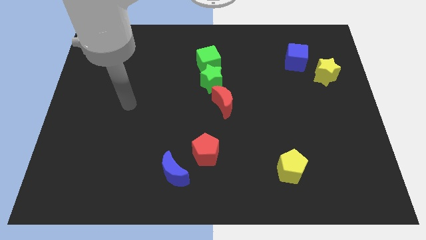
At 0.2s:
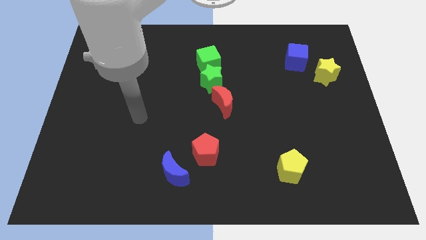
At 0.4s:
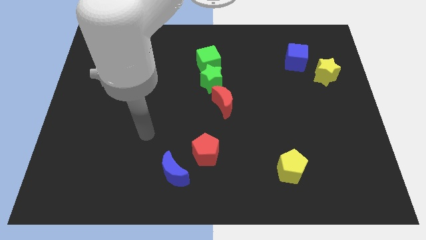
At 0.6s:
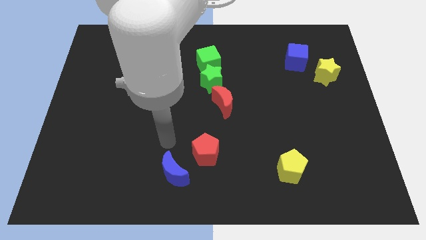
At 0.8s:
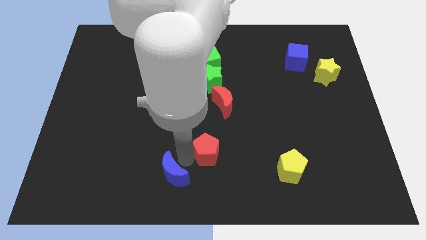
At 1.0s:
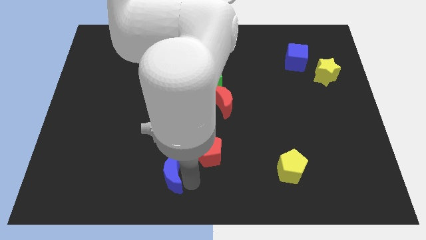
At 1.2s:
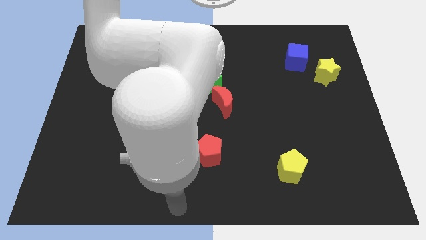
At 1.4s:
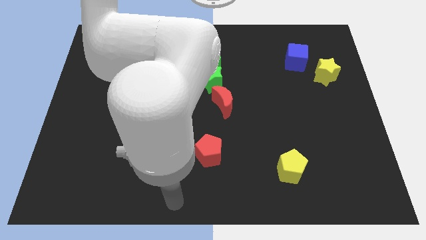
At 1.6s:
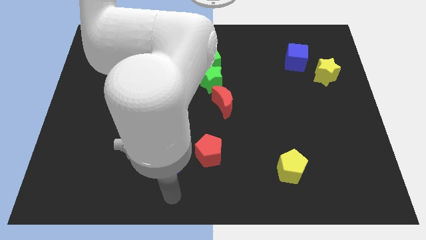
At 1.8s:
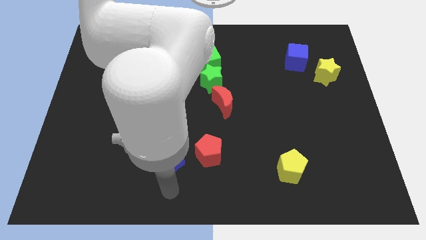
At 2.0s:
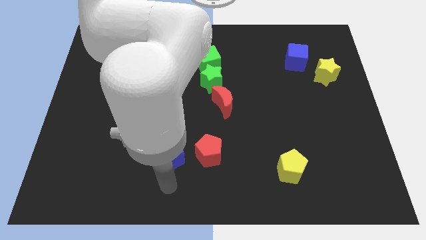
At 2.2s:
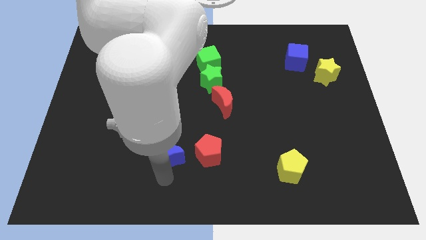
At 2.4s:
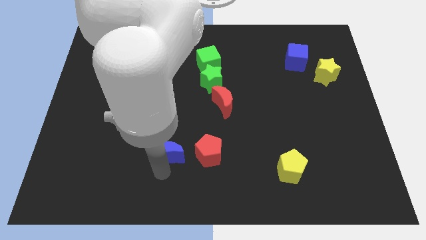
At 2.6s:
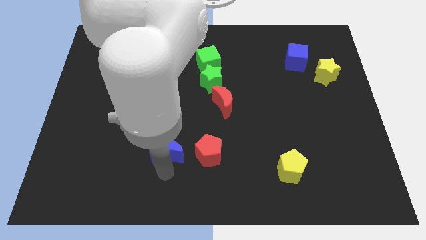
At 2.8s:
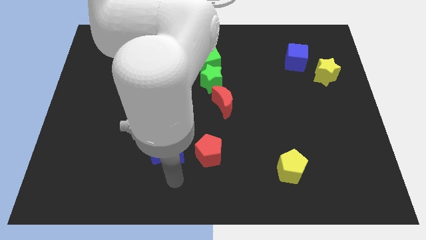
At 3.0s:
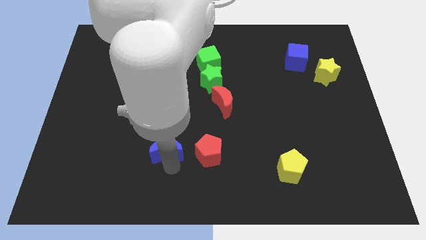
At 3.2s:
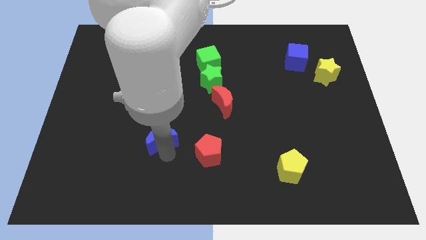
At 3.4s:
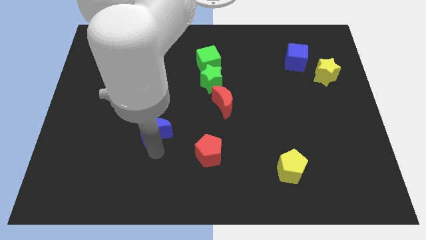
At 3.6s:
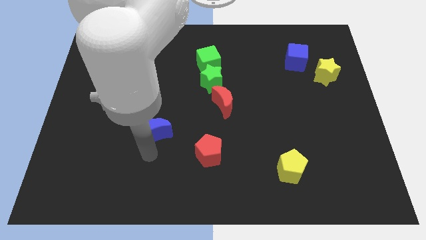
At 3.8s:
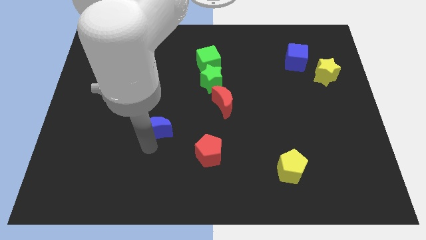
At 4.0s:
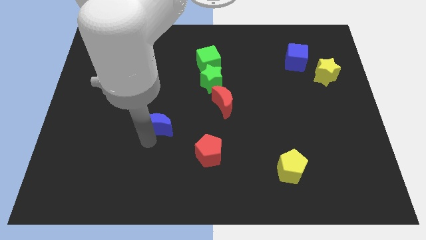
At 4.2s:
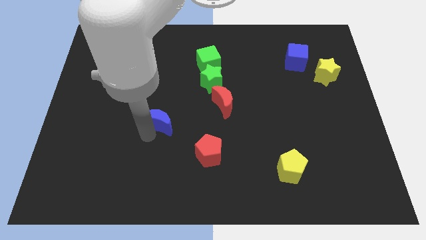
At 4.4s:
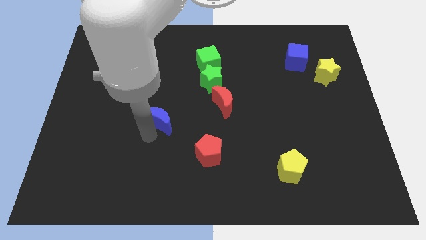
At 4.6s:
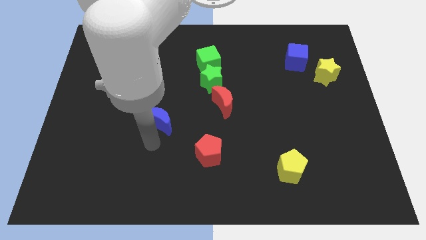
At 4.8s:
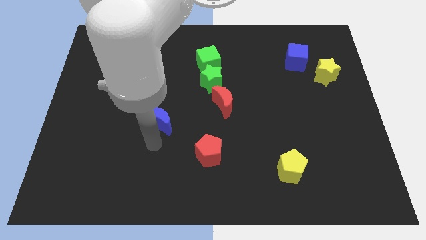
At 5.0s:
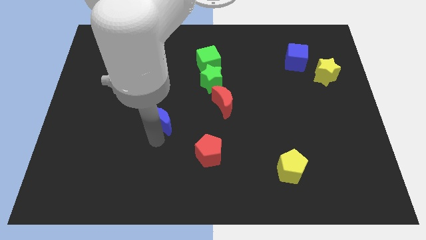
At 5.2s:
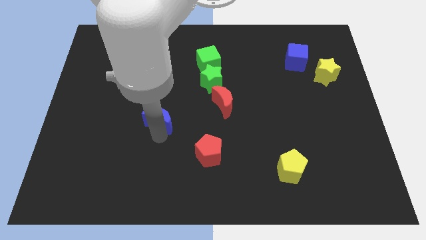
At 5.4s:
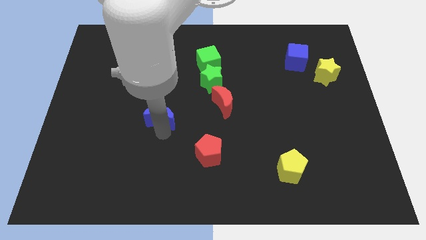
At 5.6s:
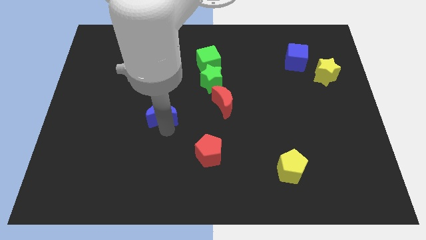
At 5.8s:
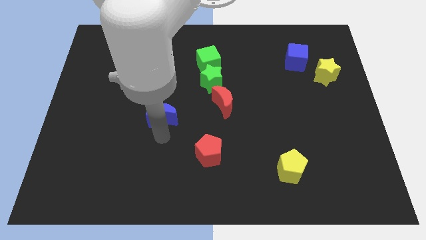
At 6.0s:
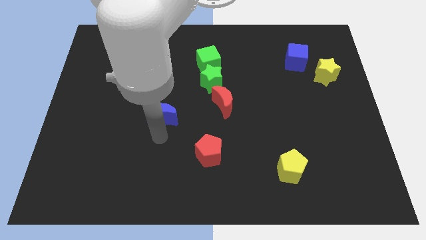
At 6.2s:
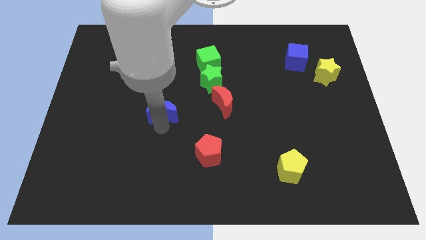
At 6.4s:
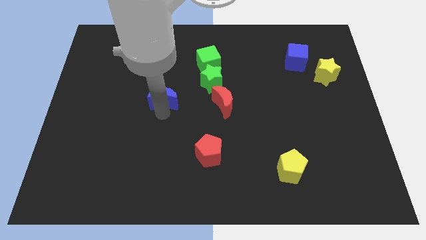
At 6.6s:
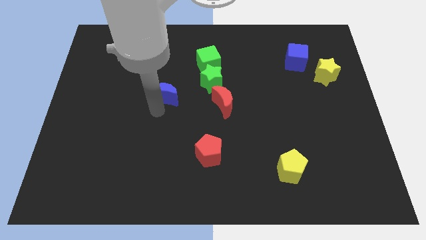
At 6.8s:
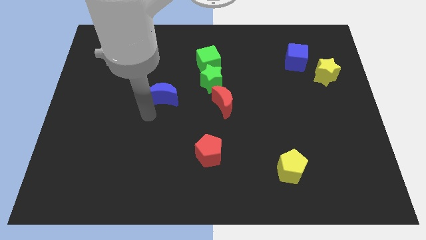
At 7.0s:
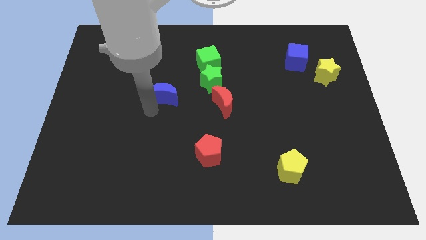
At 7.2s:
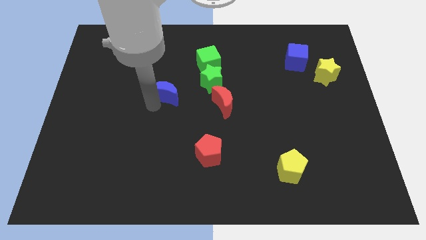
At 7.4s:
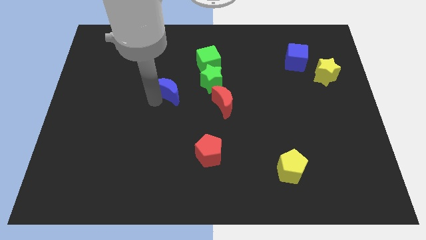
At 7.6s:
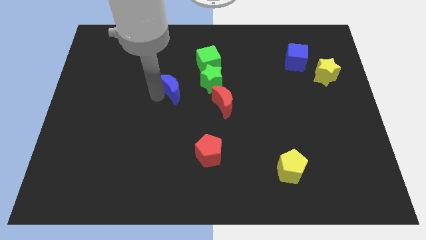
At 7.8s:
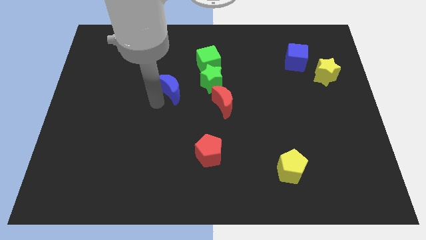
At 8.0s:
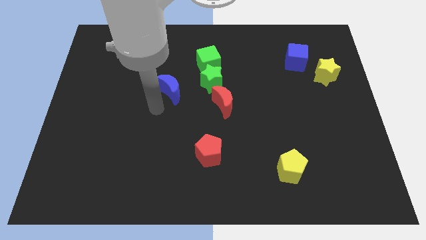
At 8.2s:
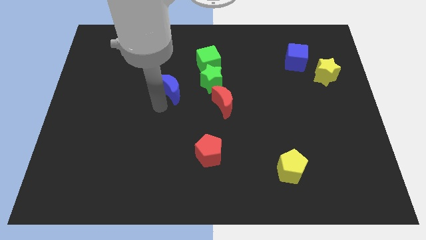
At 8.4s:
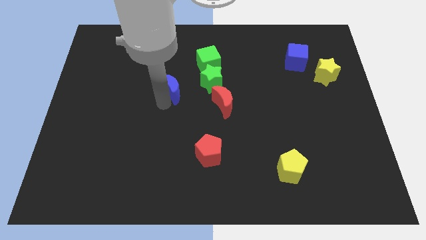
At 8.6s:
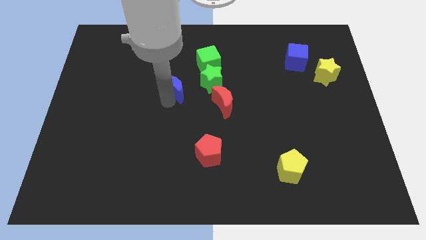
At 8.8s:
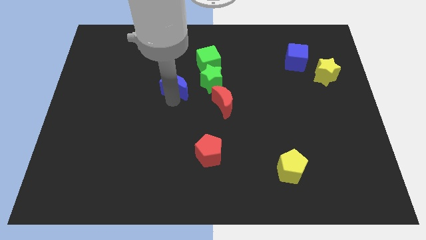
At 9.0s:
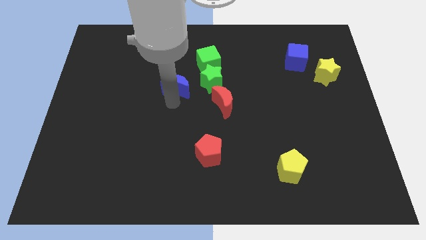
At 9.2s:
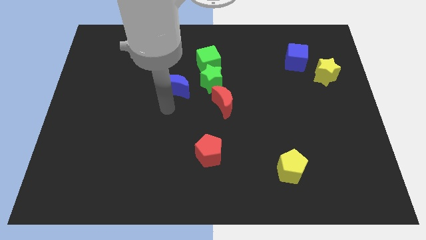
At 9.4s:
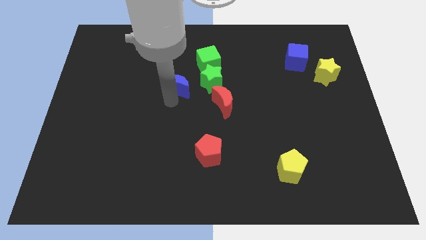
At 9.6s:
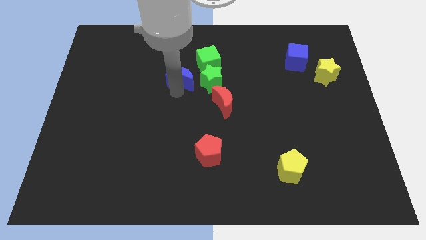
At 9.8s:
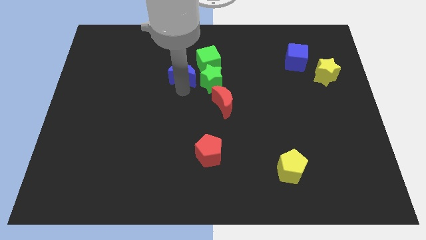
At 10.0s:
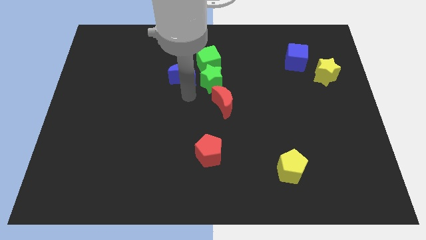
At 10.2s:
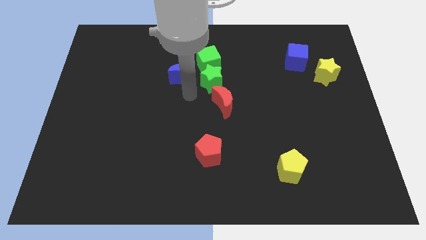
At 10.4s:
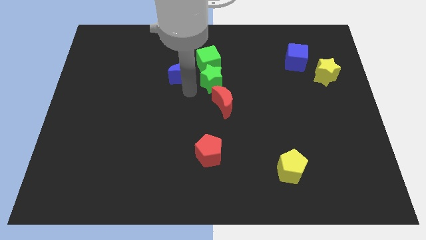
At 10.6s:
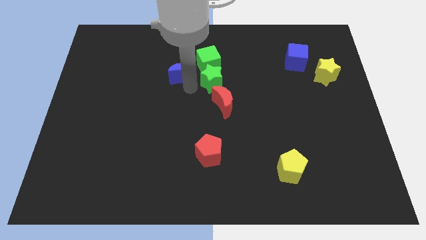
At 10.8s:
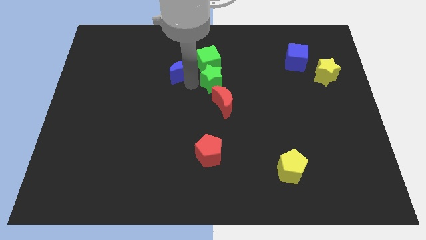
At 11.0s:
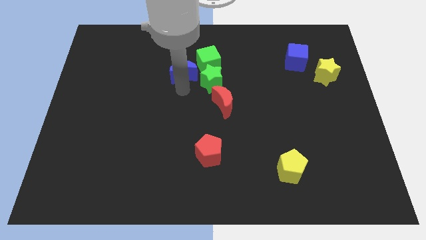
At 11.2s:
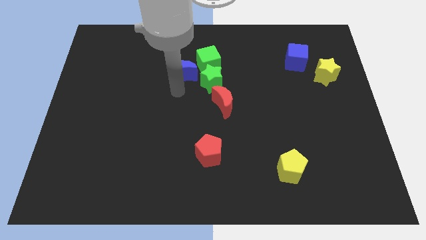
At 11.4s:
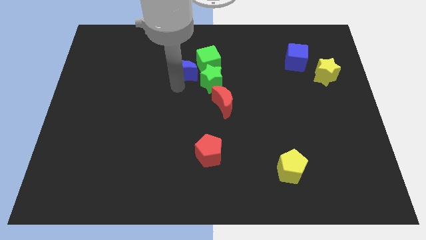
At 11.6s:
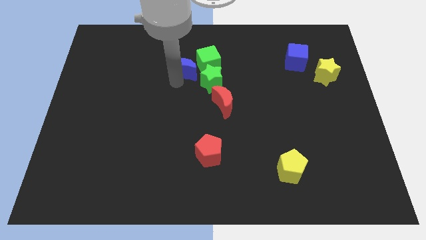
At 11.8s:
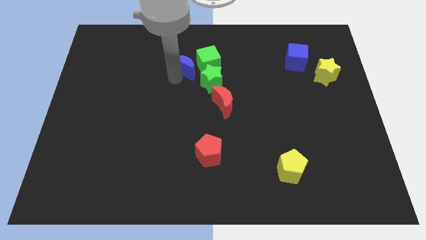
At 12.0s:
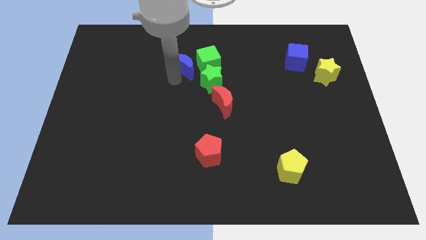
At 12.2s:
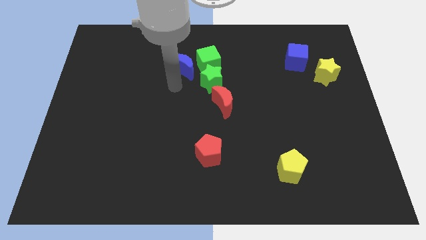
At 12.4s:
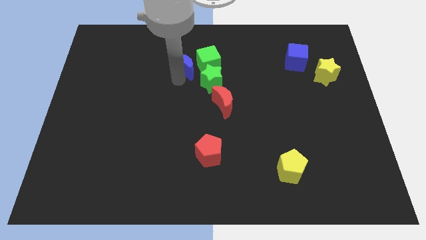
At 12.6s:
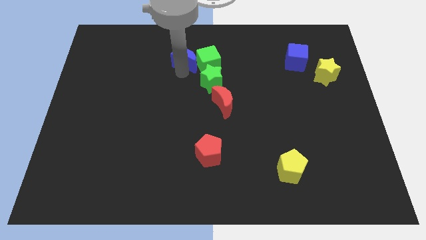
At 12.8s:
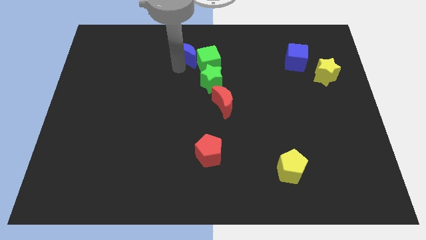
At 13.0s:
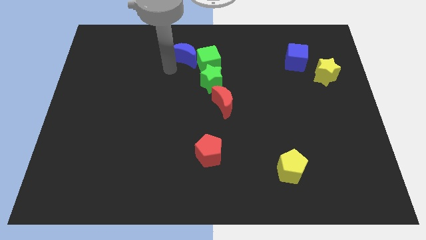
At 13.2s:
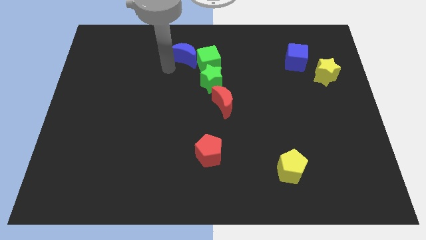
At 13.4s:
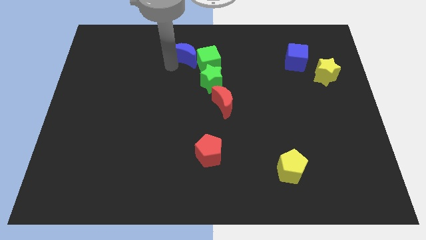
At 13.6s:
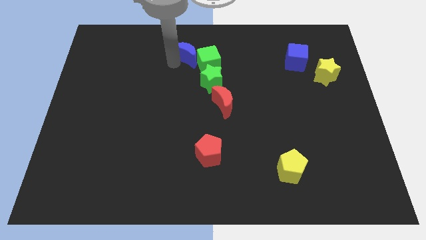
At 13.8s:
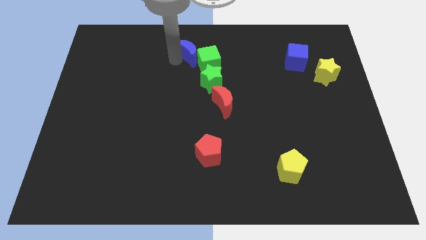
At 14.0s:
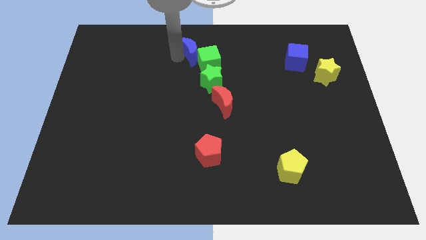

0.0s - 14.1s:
slide the blue moon to the top
